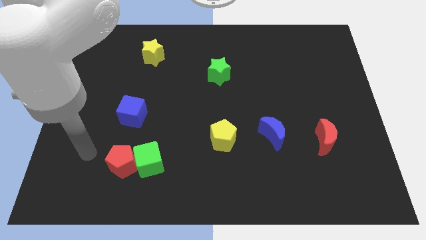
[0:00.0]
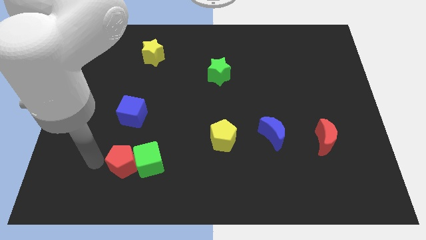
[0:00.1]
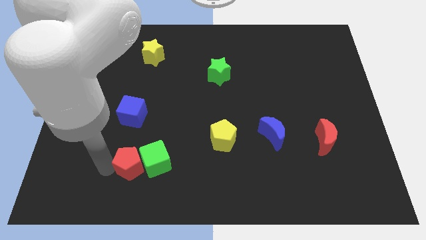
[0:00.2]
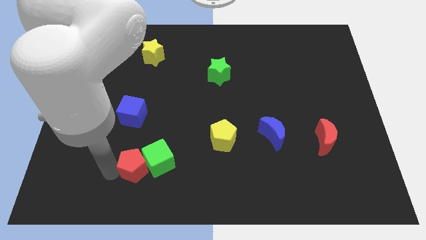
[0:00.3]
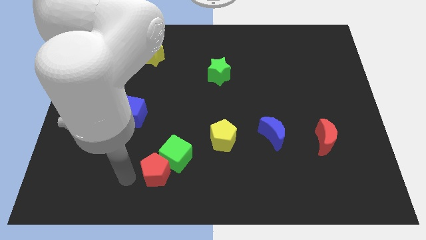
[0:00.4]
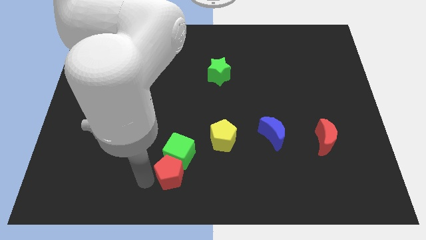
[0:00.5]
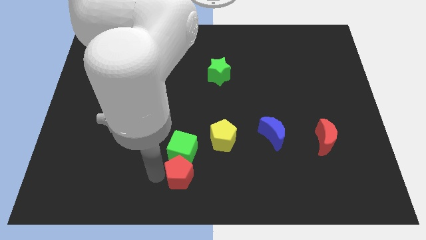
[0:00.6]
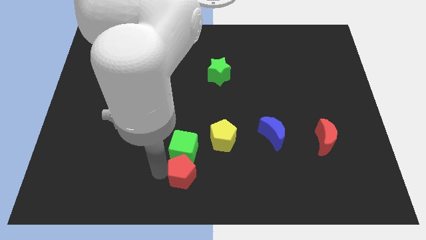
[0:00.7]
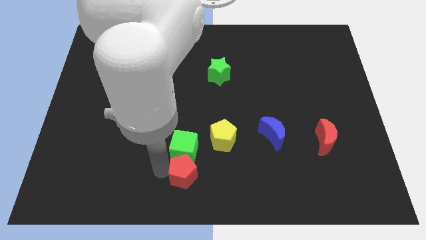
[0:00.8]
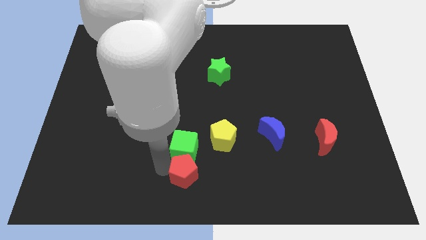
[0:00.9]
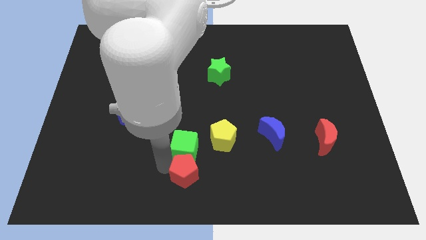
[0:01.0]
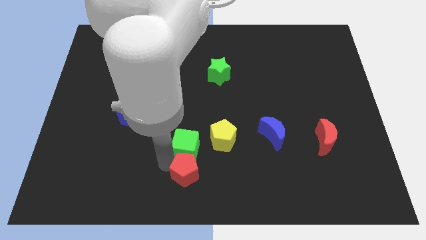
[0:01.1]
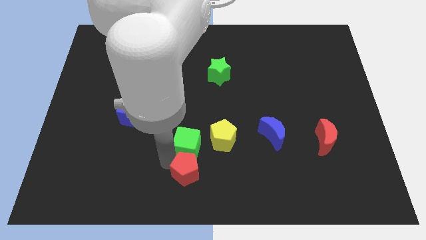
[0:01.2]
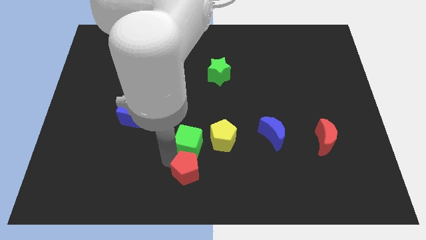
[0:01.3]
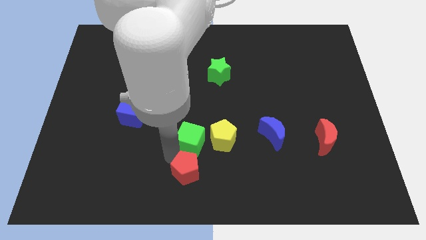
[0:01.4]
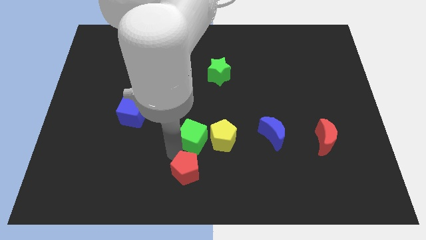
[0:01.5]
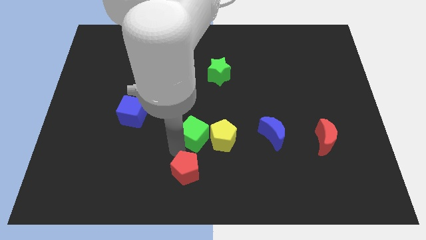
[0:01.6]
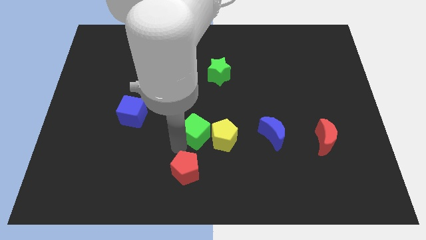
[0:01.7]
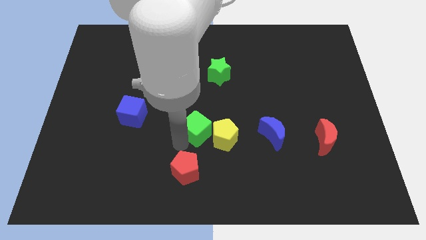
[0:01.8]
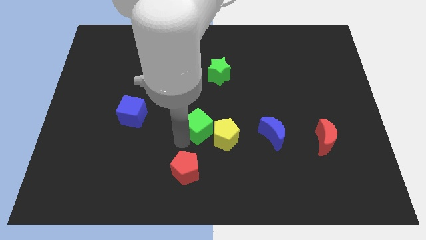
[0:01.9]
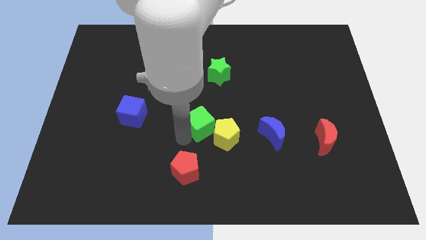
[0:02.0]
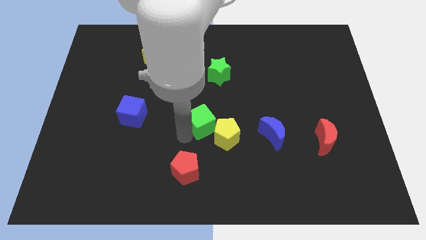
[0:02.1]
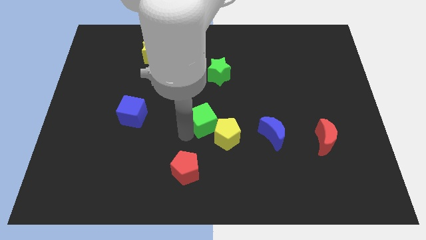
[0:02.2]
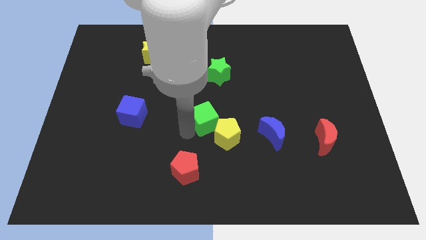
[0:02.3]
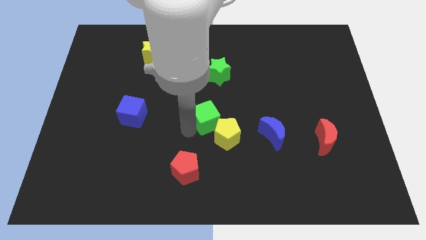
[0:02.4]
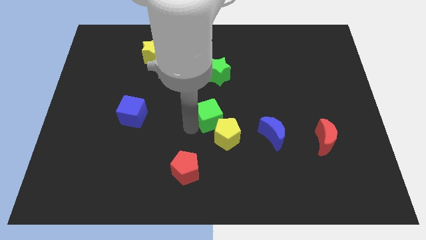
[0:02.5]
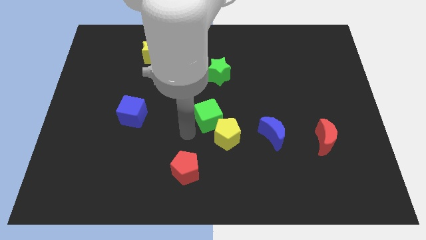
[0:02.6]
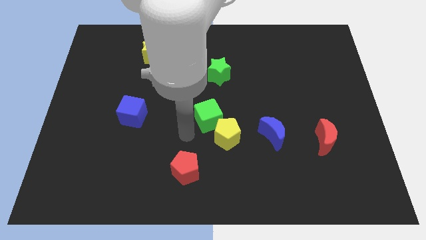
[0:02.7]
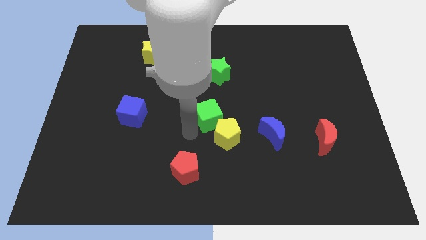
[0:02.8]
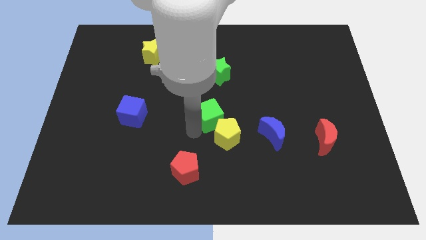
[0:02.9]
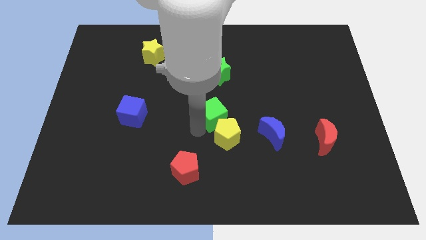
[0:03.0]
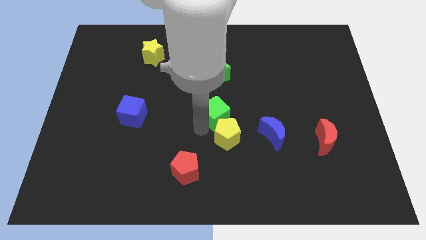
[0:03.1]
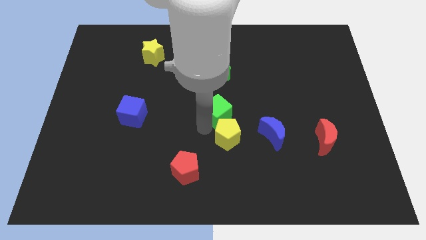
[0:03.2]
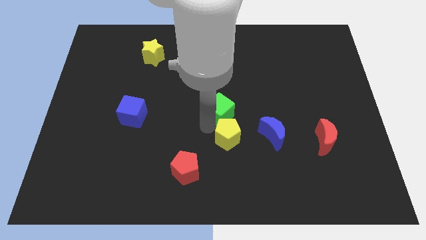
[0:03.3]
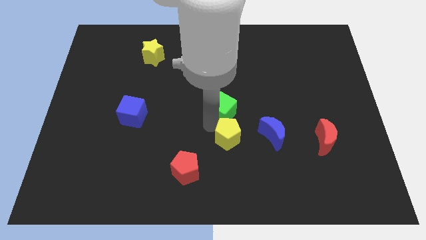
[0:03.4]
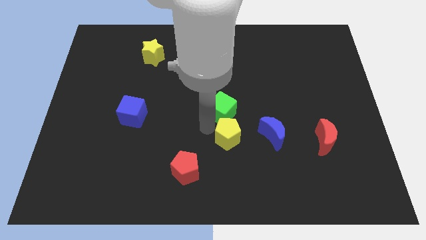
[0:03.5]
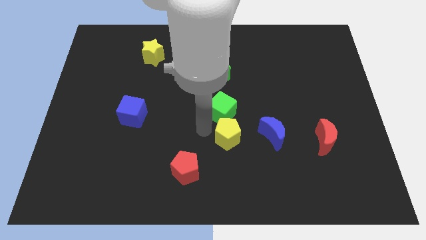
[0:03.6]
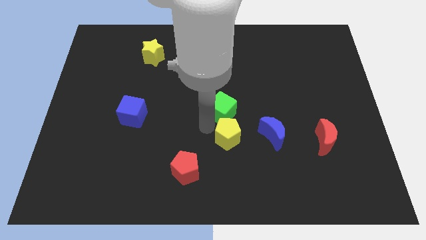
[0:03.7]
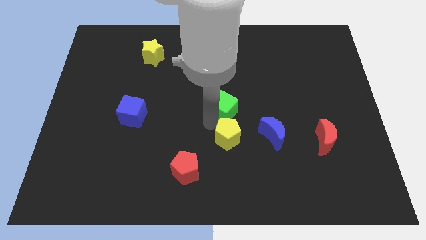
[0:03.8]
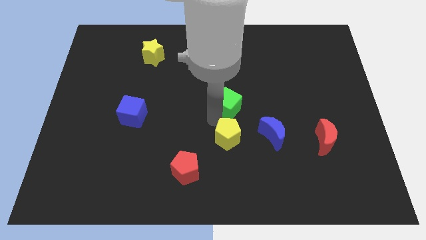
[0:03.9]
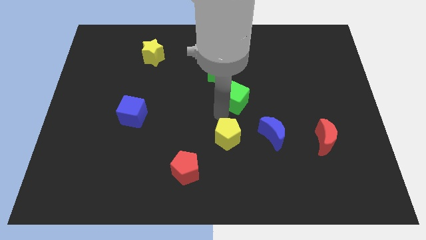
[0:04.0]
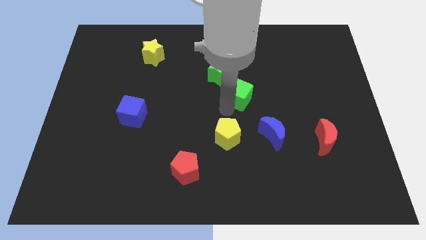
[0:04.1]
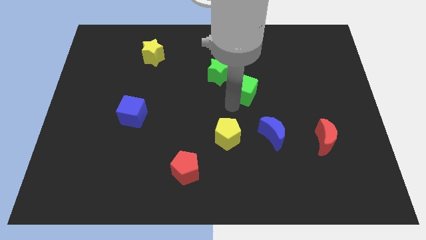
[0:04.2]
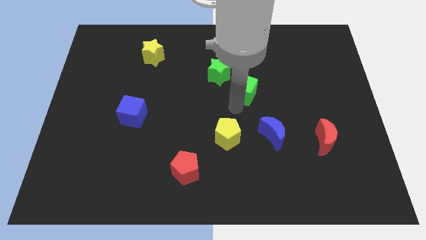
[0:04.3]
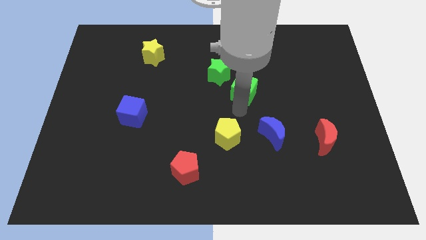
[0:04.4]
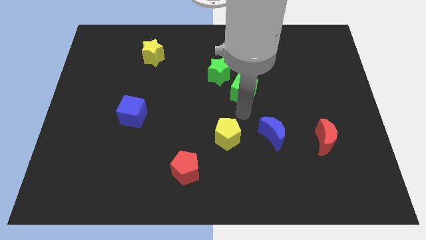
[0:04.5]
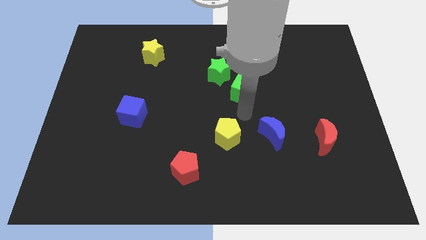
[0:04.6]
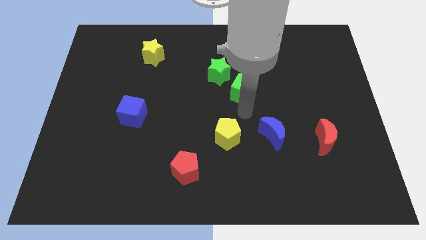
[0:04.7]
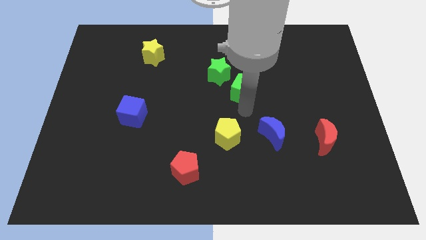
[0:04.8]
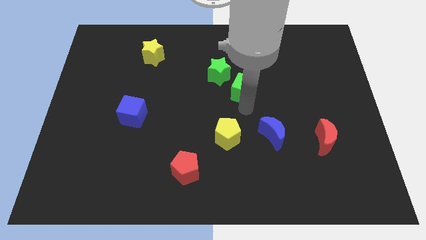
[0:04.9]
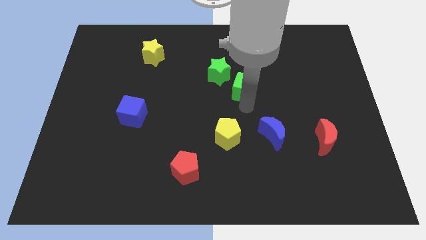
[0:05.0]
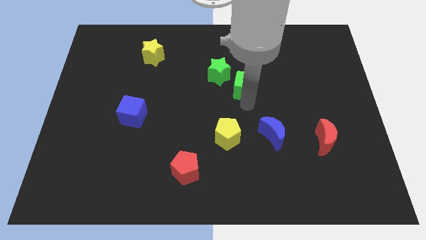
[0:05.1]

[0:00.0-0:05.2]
put the green cube right of the green star

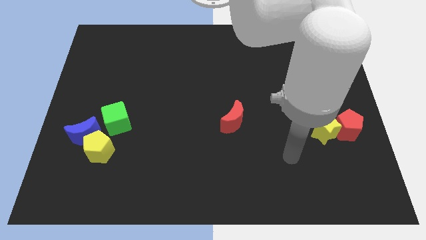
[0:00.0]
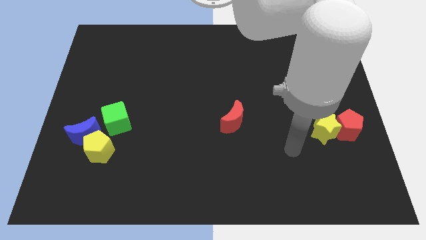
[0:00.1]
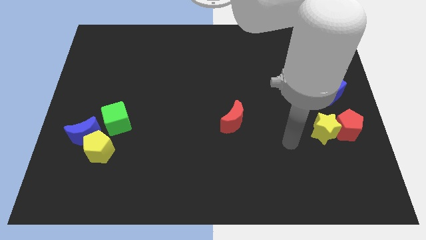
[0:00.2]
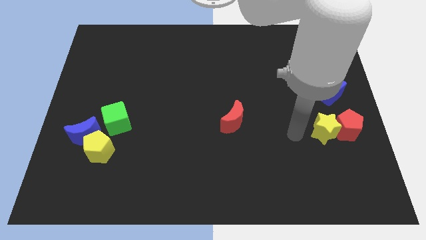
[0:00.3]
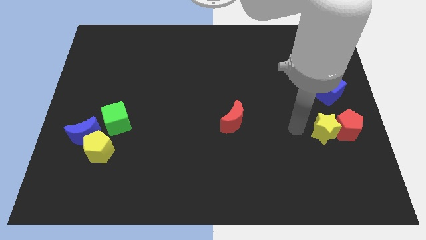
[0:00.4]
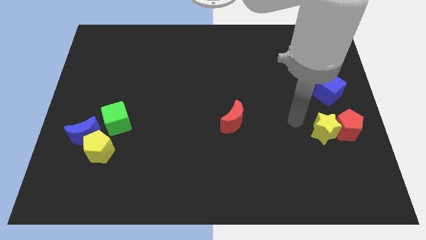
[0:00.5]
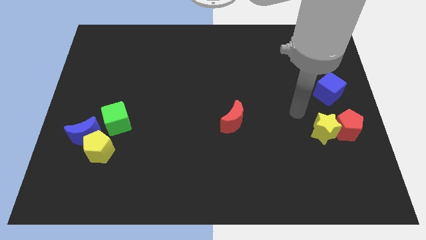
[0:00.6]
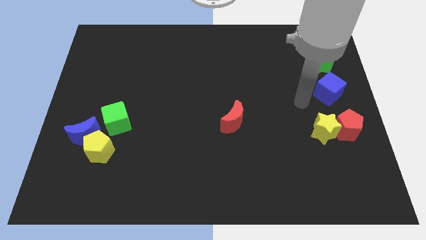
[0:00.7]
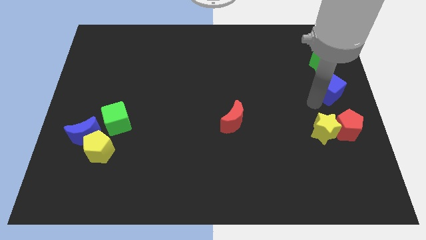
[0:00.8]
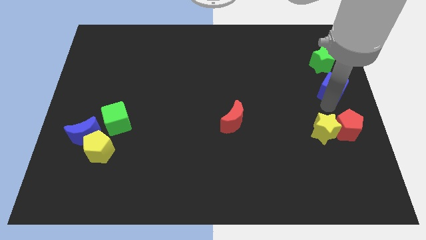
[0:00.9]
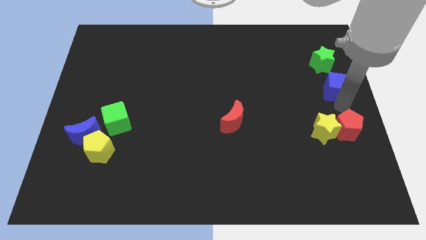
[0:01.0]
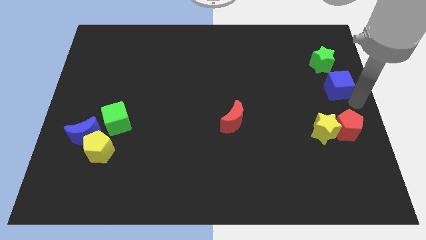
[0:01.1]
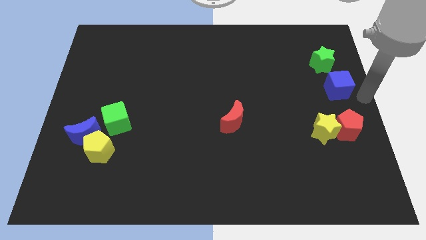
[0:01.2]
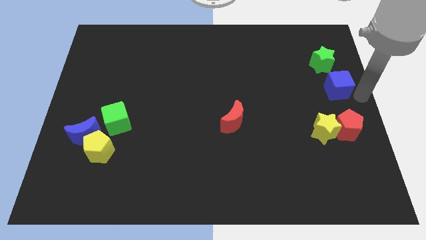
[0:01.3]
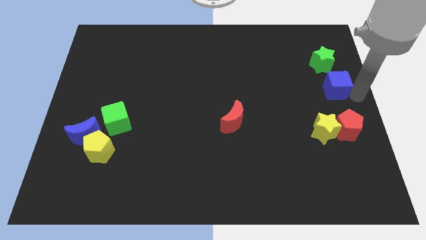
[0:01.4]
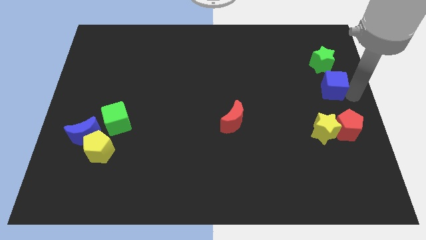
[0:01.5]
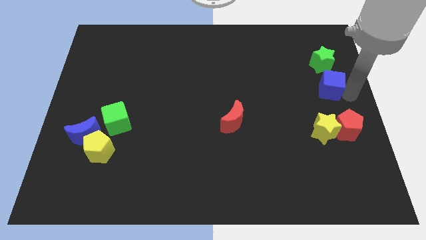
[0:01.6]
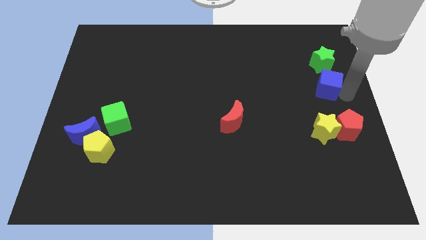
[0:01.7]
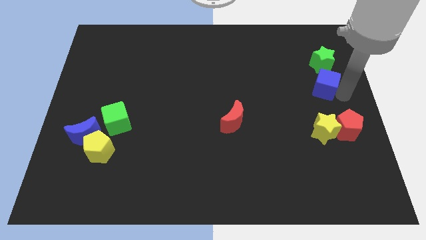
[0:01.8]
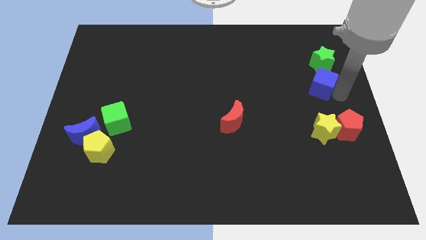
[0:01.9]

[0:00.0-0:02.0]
slide the blue cube to the bottom left side of the green star
